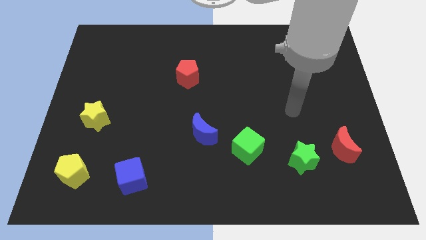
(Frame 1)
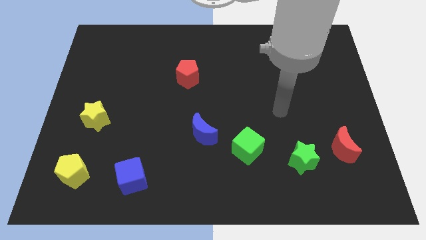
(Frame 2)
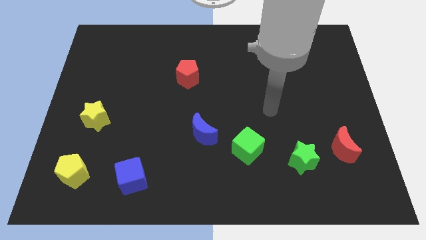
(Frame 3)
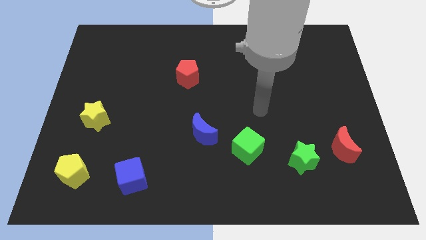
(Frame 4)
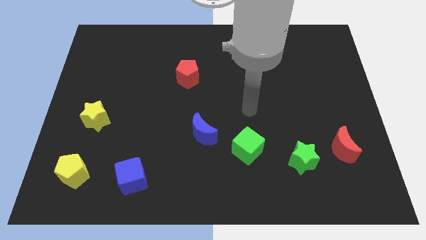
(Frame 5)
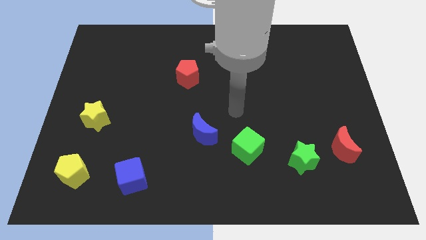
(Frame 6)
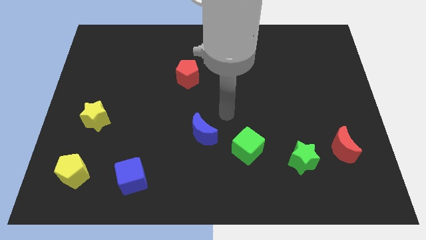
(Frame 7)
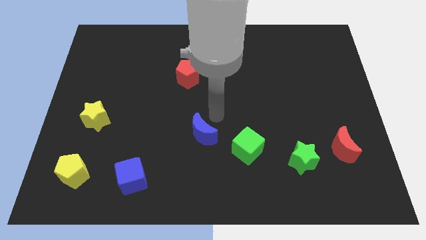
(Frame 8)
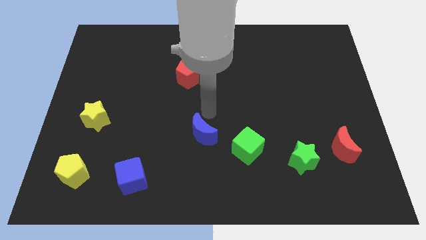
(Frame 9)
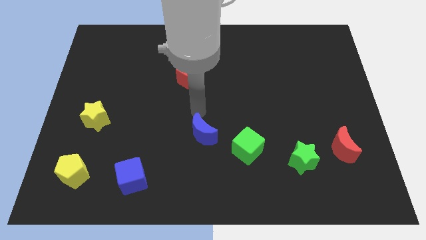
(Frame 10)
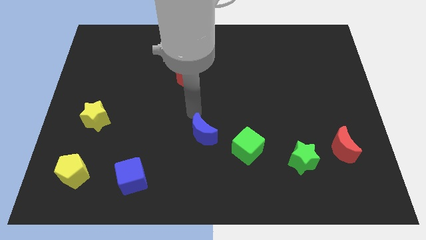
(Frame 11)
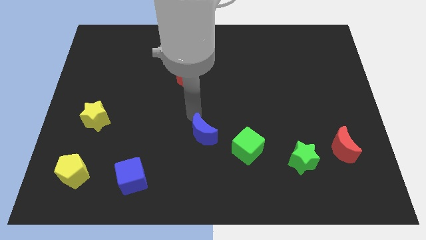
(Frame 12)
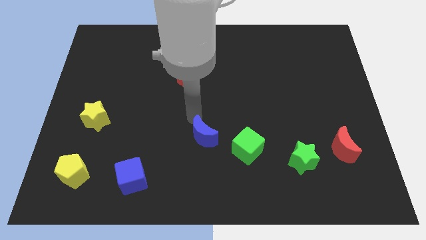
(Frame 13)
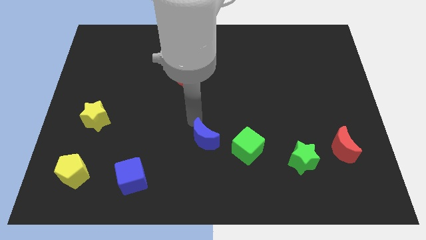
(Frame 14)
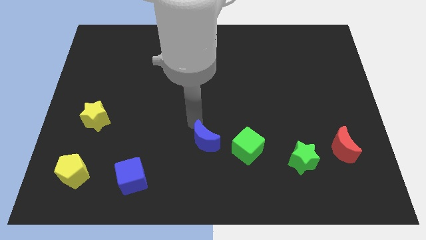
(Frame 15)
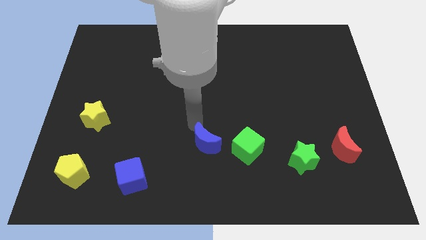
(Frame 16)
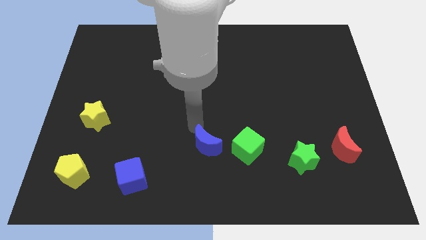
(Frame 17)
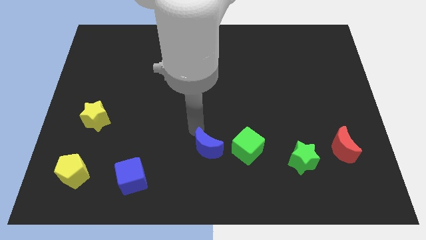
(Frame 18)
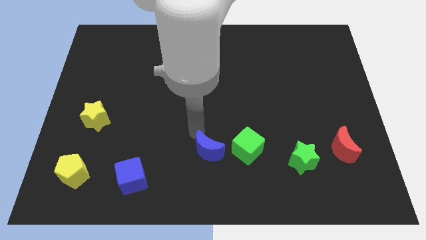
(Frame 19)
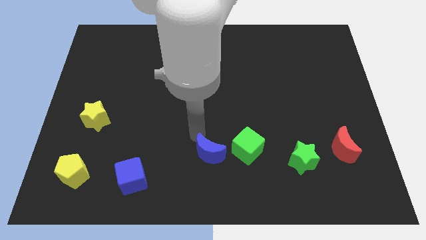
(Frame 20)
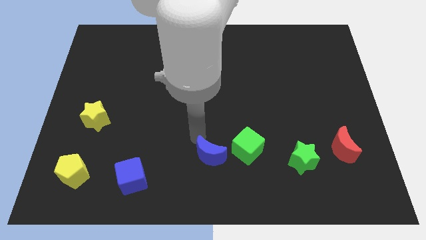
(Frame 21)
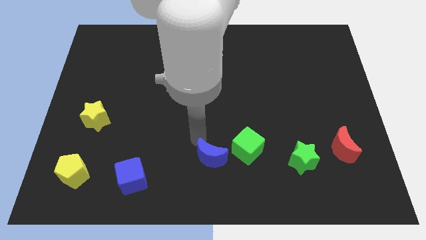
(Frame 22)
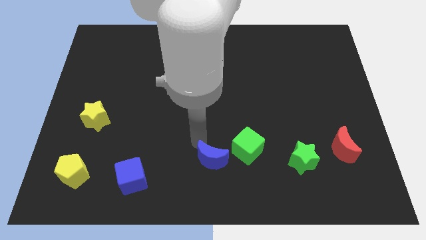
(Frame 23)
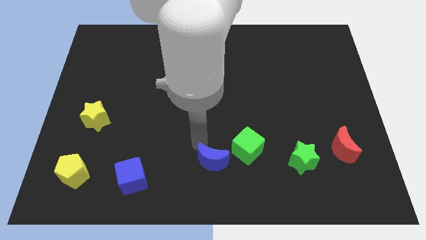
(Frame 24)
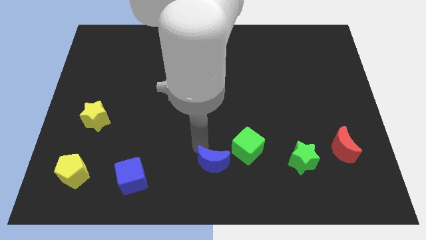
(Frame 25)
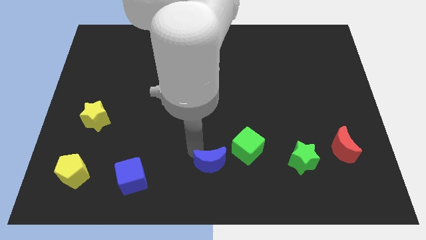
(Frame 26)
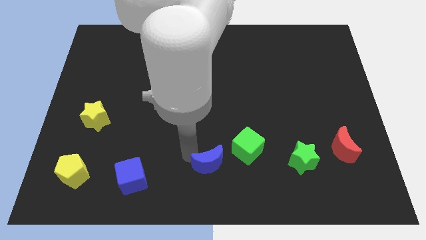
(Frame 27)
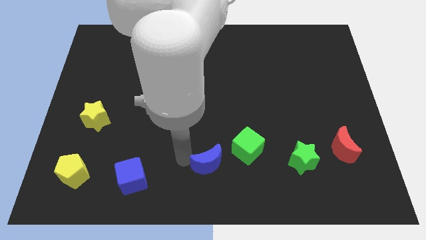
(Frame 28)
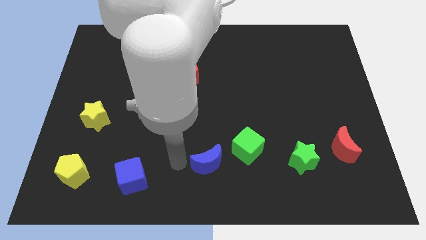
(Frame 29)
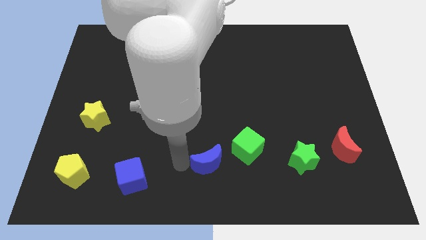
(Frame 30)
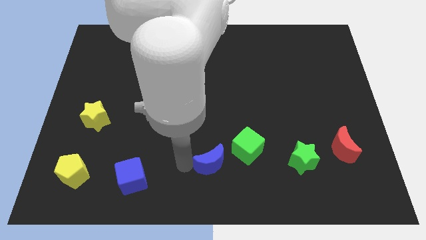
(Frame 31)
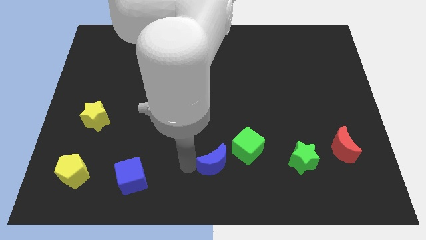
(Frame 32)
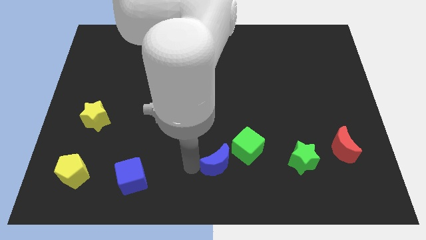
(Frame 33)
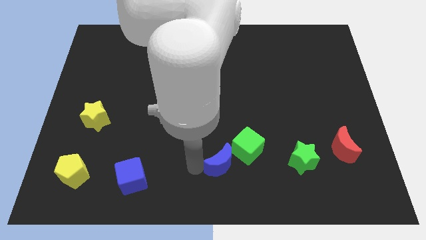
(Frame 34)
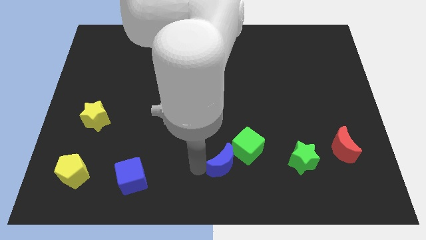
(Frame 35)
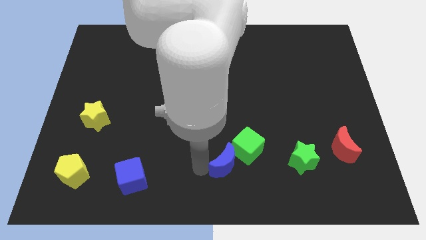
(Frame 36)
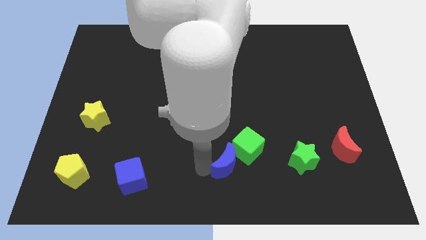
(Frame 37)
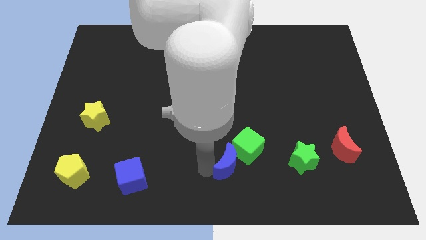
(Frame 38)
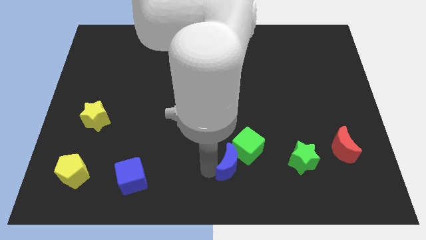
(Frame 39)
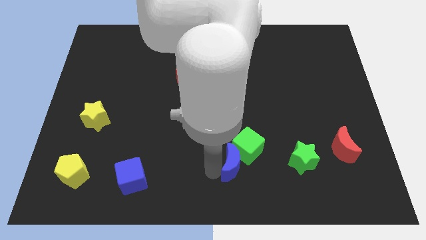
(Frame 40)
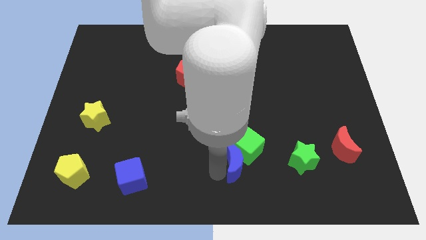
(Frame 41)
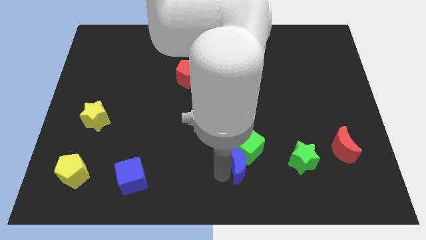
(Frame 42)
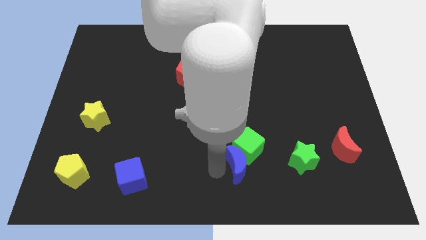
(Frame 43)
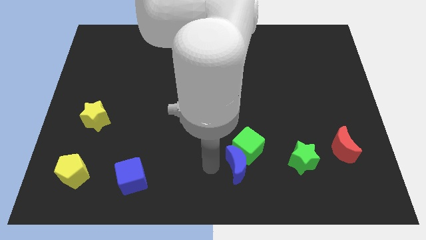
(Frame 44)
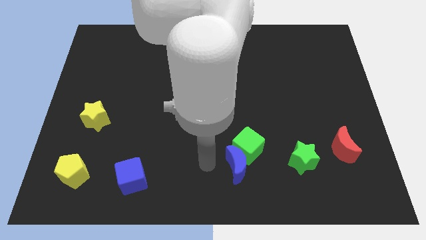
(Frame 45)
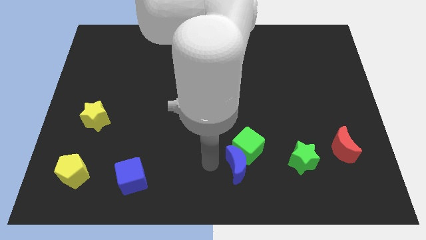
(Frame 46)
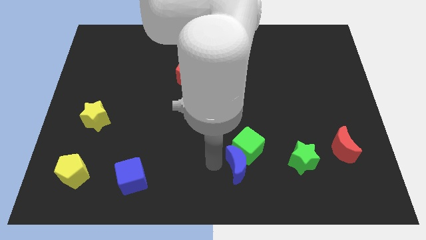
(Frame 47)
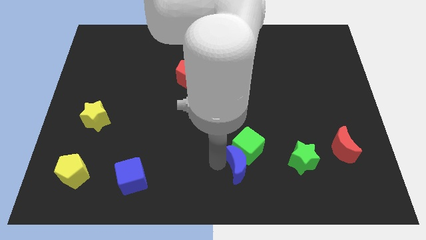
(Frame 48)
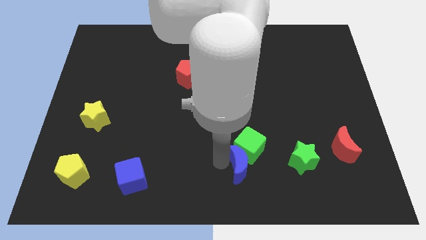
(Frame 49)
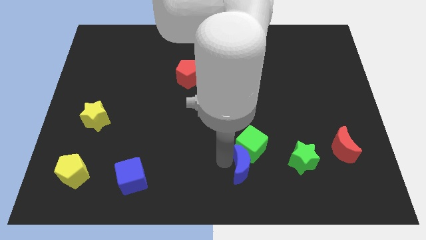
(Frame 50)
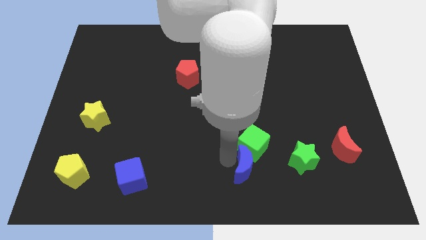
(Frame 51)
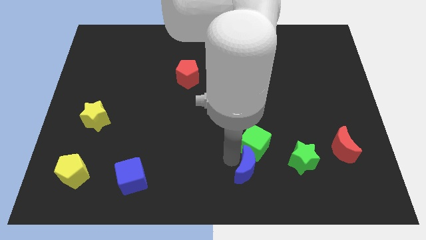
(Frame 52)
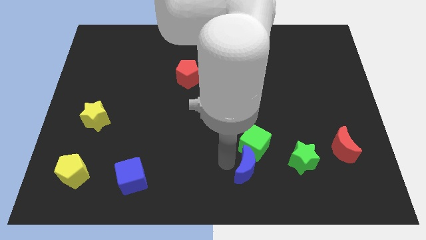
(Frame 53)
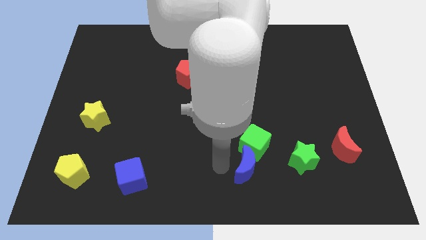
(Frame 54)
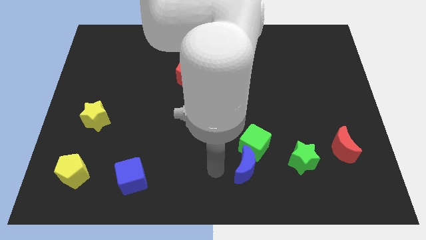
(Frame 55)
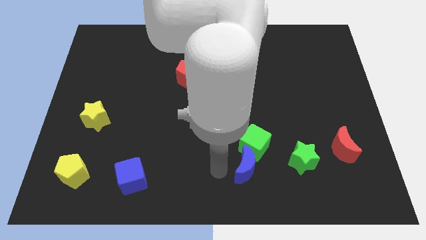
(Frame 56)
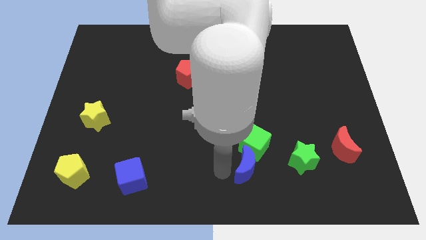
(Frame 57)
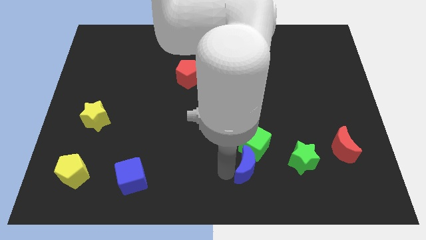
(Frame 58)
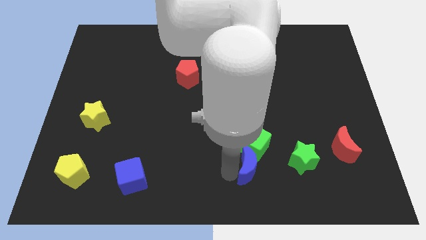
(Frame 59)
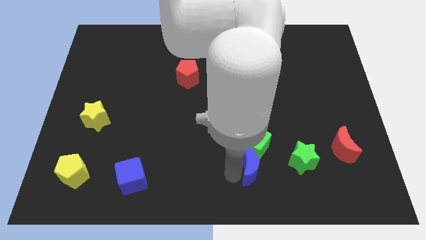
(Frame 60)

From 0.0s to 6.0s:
slide the blue moon diagonally down and to the right of the green cube

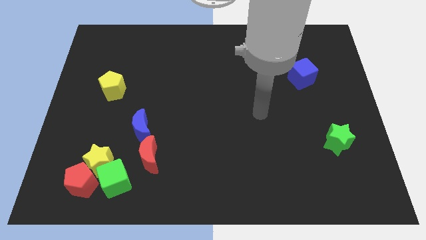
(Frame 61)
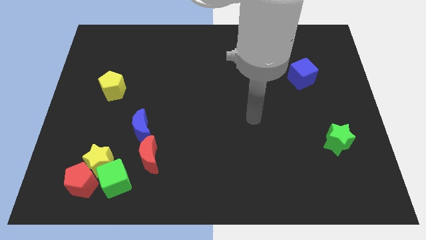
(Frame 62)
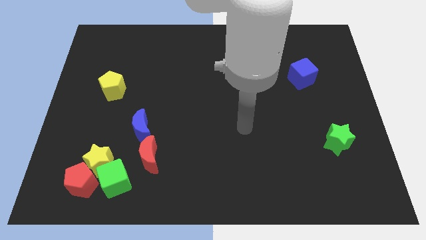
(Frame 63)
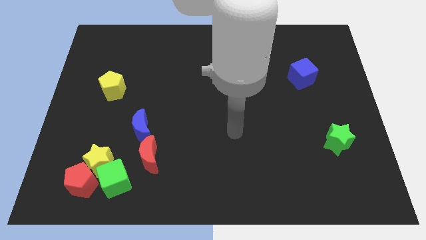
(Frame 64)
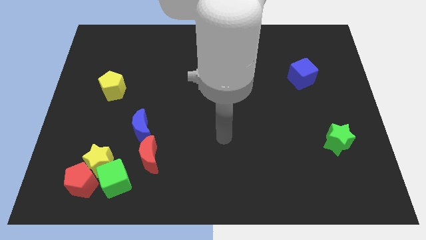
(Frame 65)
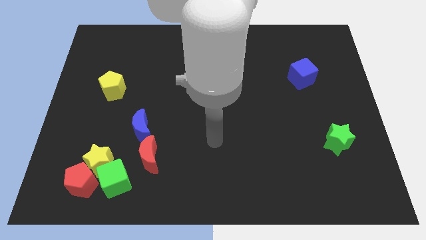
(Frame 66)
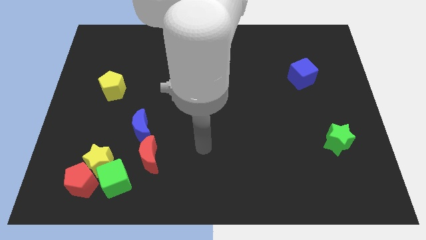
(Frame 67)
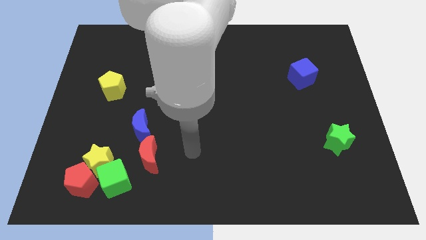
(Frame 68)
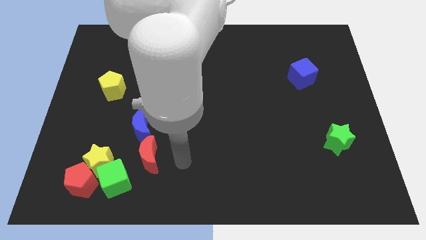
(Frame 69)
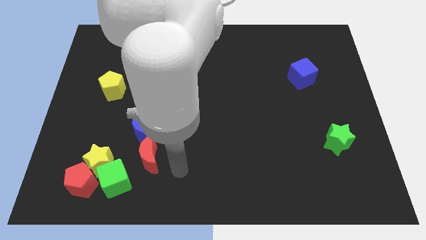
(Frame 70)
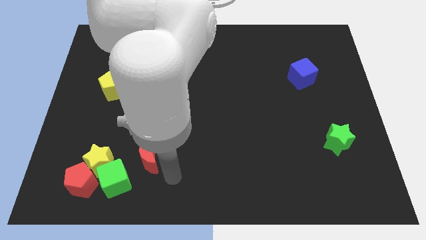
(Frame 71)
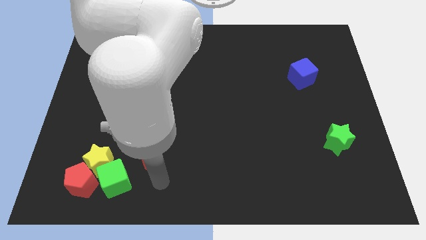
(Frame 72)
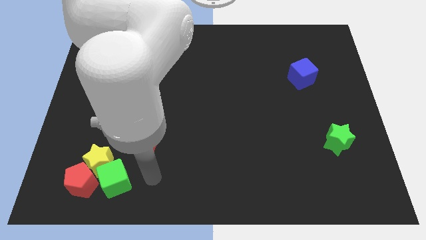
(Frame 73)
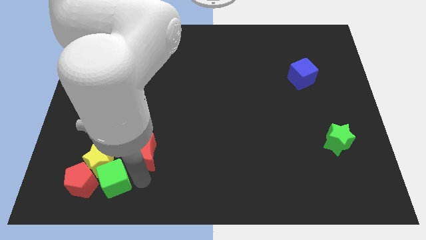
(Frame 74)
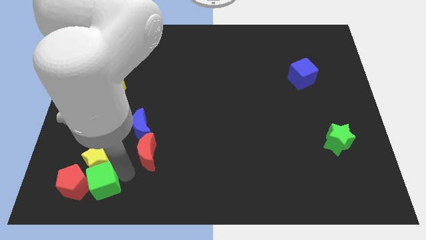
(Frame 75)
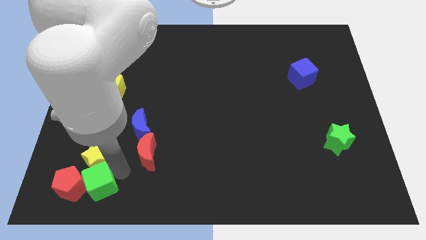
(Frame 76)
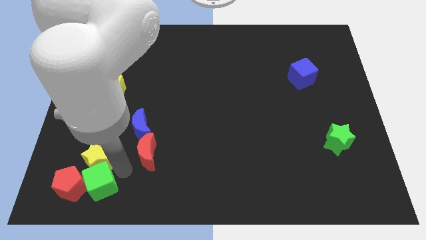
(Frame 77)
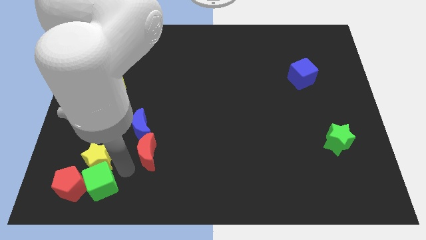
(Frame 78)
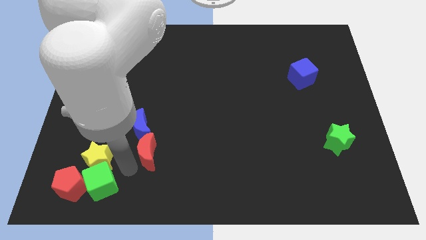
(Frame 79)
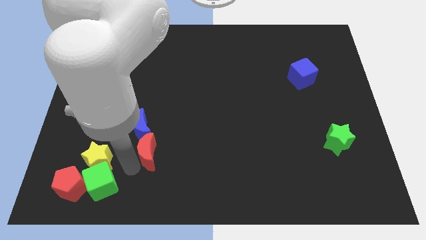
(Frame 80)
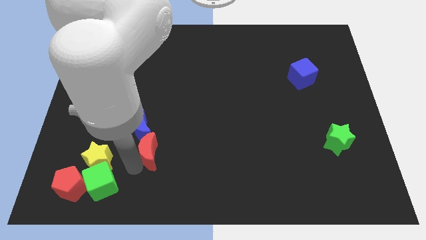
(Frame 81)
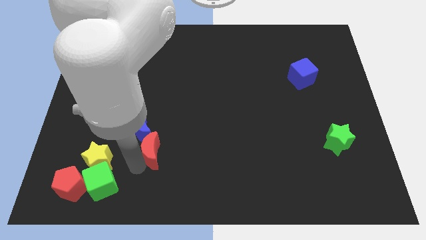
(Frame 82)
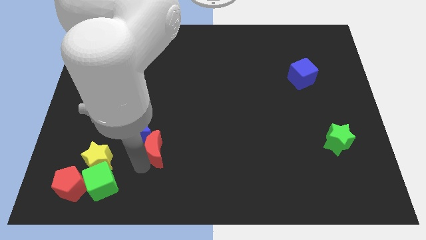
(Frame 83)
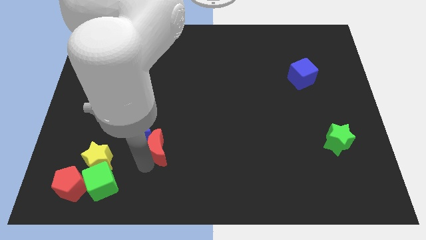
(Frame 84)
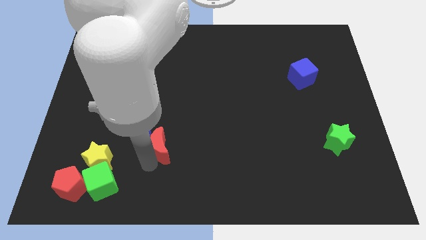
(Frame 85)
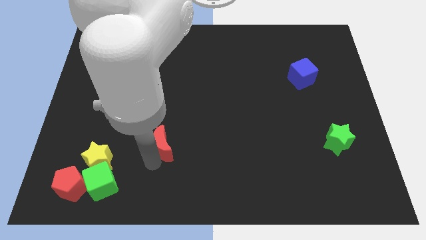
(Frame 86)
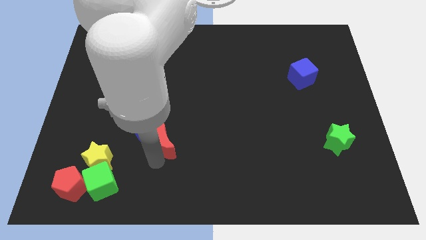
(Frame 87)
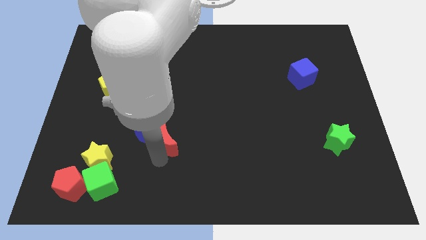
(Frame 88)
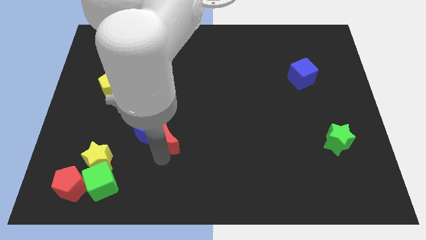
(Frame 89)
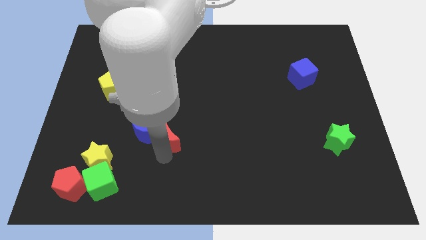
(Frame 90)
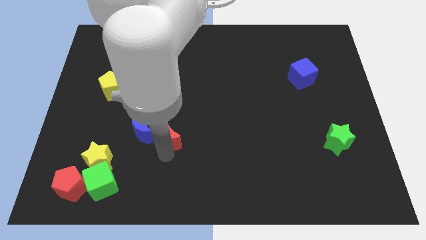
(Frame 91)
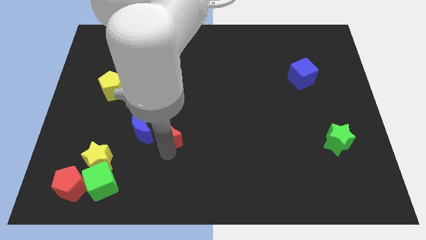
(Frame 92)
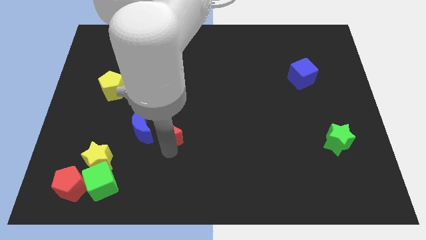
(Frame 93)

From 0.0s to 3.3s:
slide the red moon to the top right side of the blue moon
